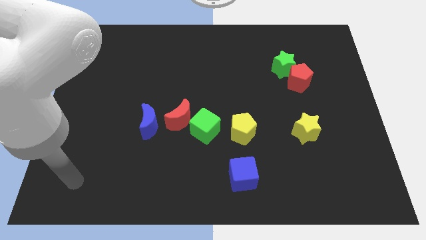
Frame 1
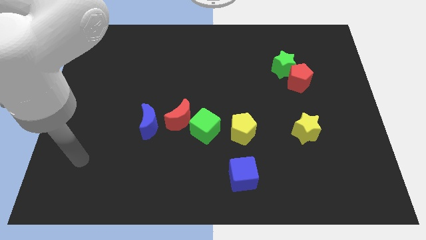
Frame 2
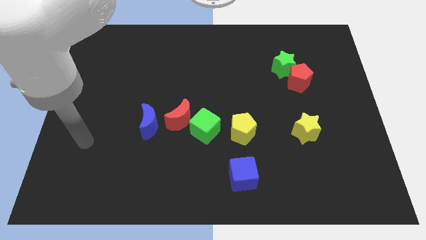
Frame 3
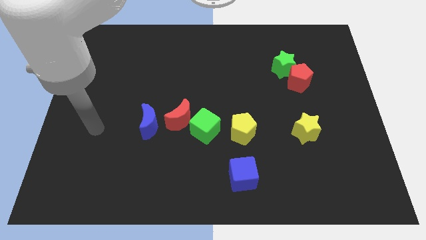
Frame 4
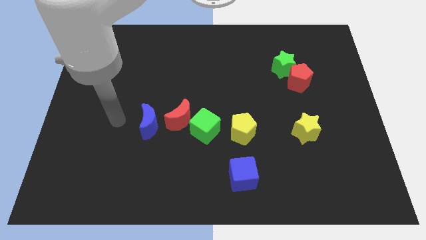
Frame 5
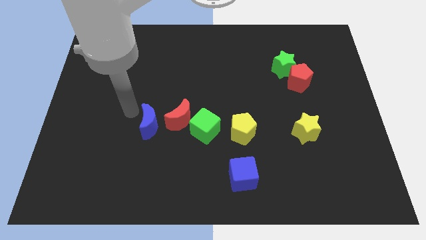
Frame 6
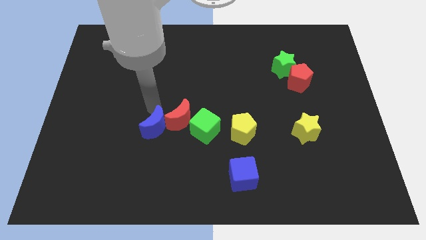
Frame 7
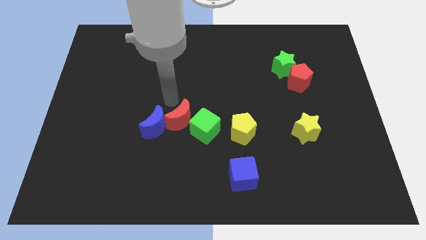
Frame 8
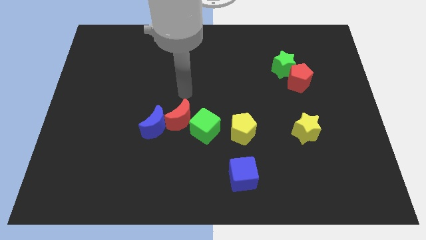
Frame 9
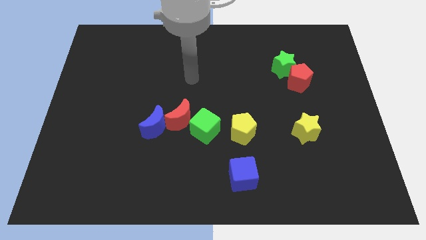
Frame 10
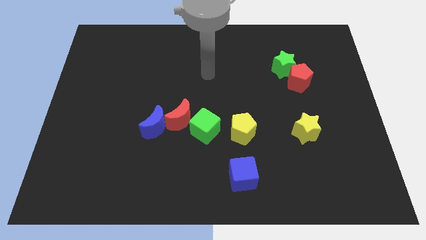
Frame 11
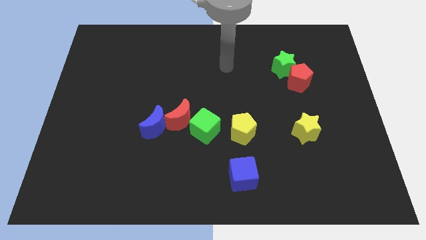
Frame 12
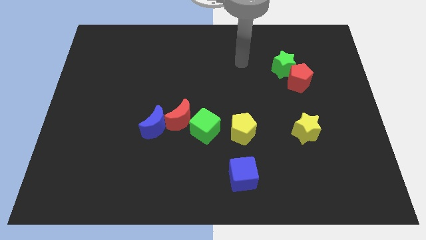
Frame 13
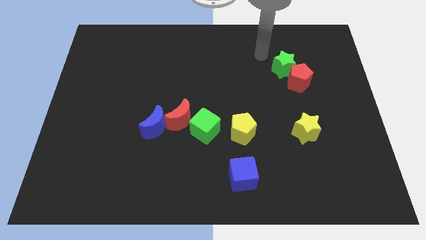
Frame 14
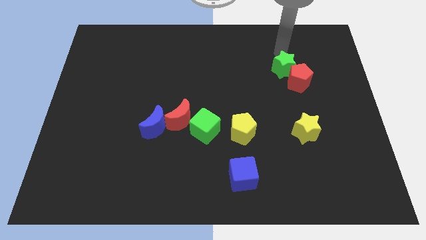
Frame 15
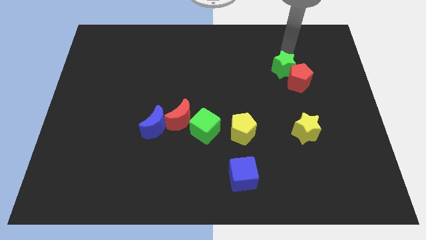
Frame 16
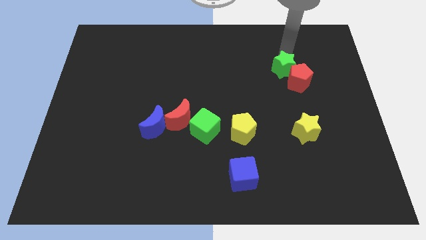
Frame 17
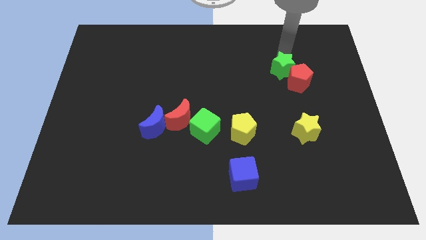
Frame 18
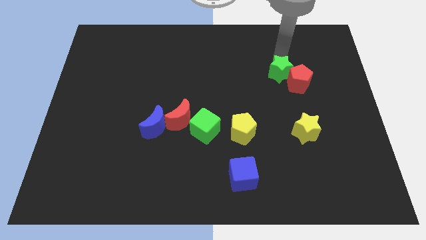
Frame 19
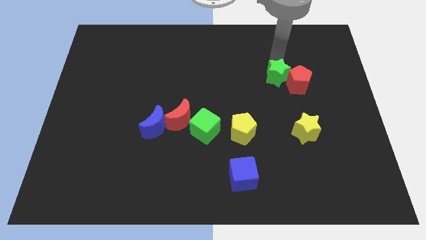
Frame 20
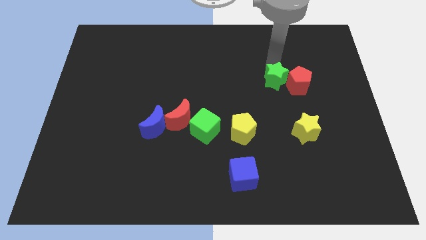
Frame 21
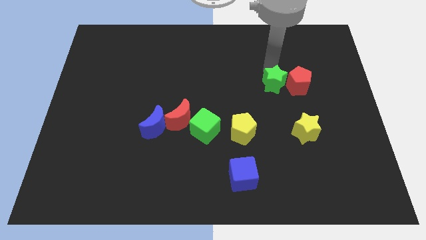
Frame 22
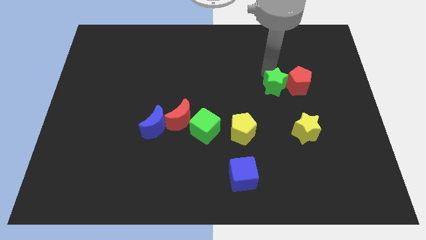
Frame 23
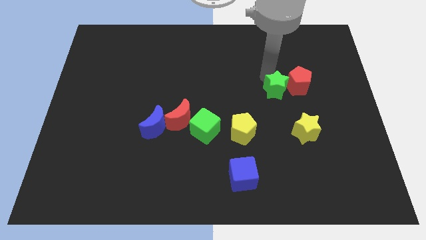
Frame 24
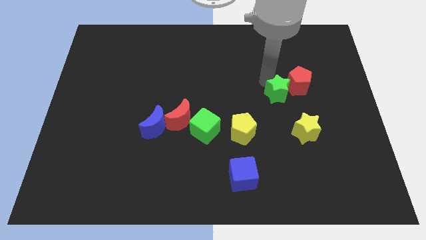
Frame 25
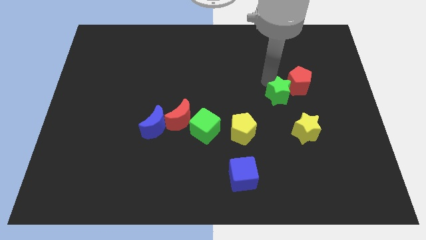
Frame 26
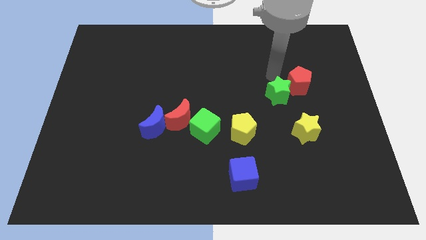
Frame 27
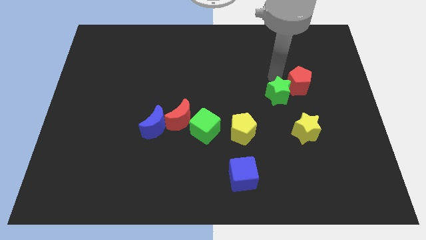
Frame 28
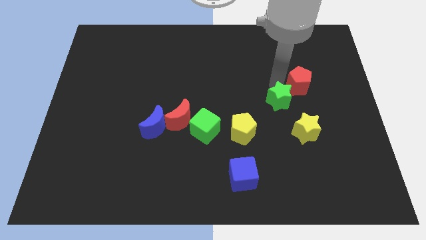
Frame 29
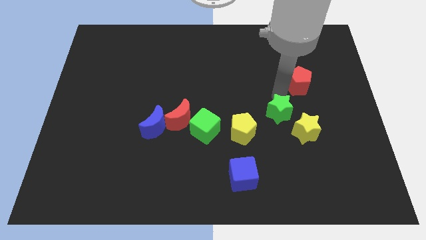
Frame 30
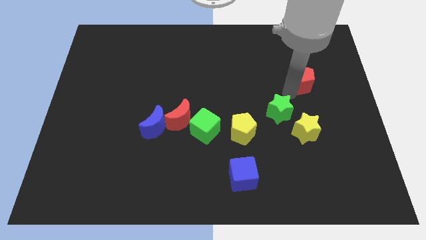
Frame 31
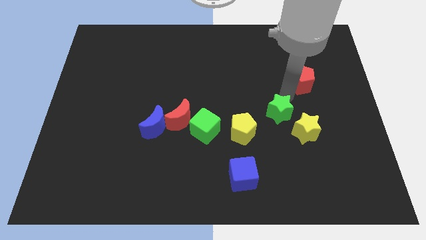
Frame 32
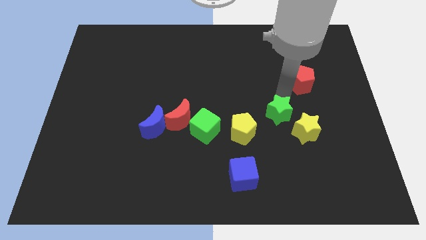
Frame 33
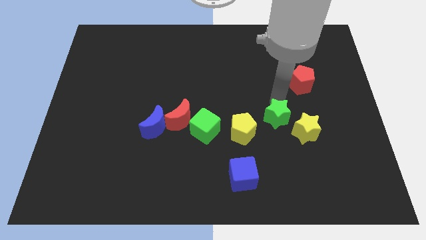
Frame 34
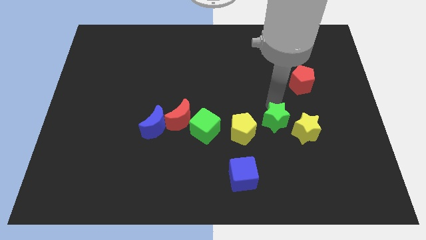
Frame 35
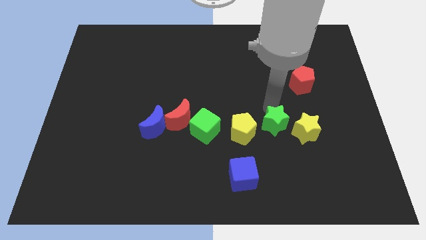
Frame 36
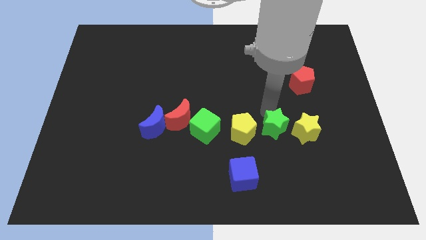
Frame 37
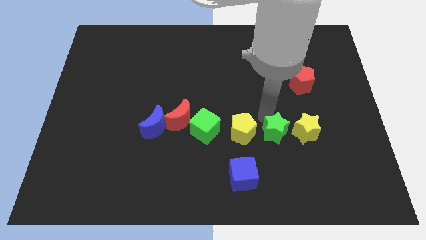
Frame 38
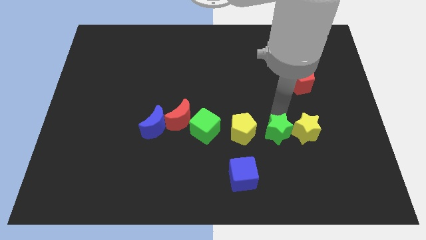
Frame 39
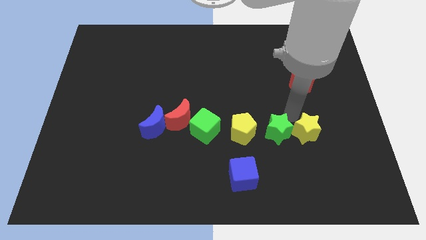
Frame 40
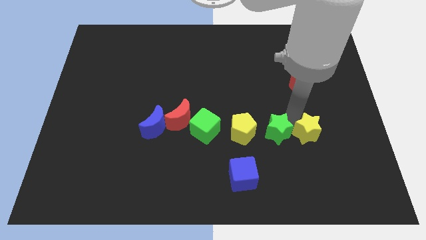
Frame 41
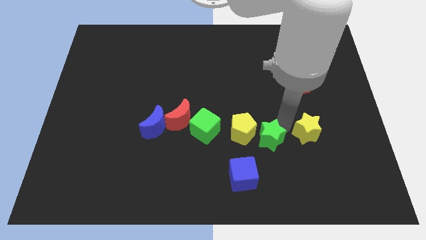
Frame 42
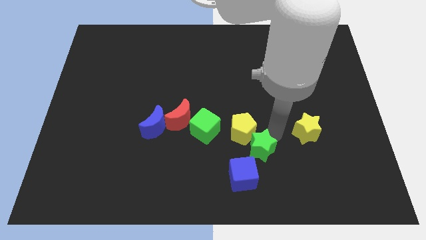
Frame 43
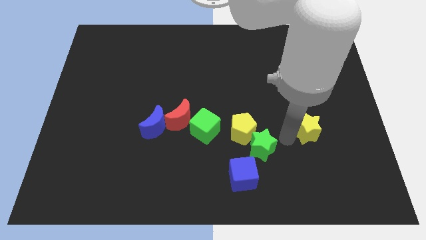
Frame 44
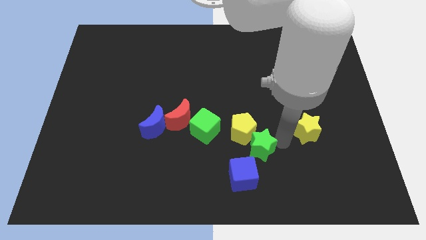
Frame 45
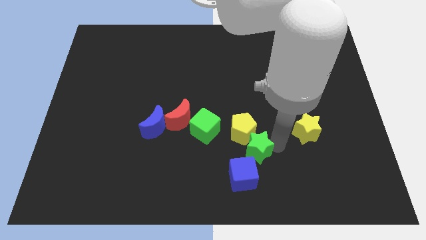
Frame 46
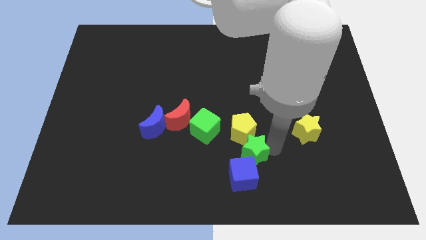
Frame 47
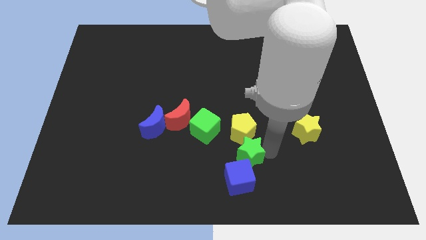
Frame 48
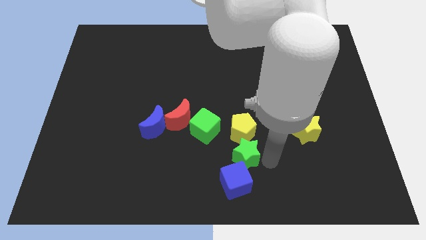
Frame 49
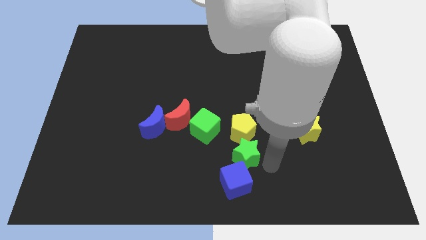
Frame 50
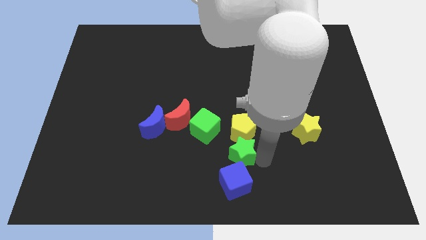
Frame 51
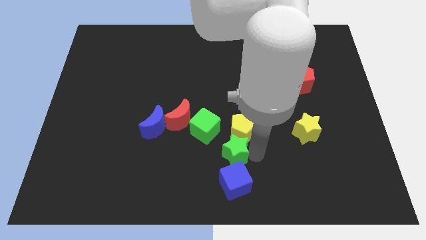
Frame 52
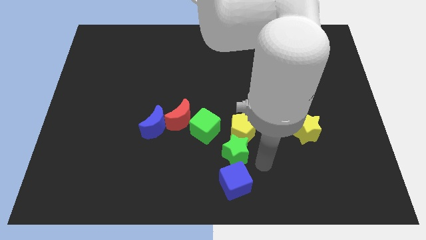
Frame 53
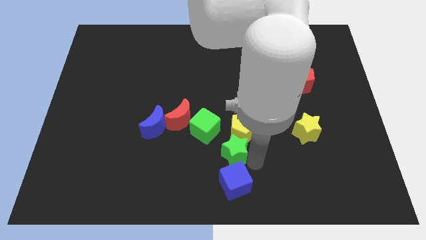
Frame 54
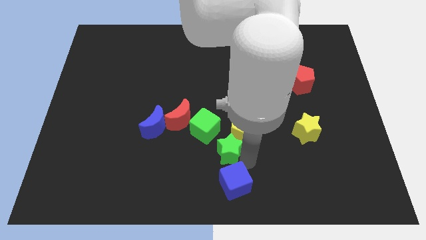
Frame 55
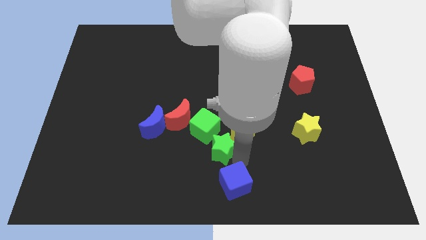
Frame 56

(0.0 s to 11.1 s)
move the green star to the bottom right side of the red moon
